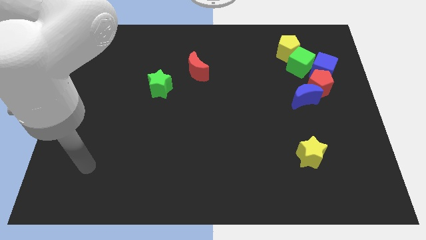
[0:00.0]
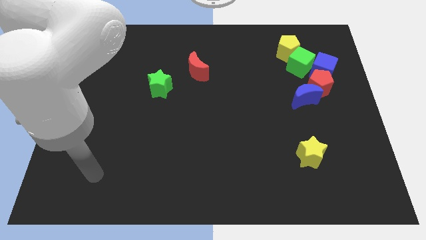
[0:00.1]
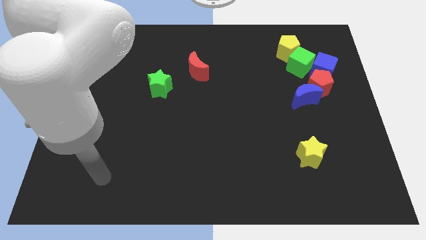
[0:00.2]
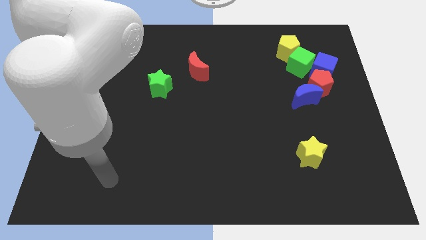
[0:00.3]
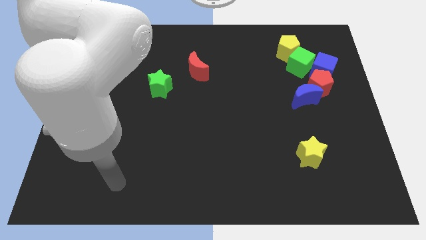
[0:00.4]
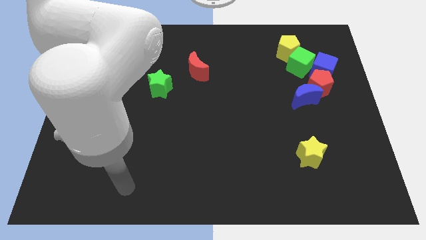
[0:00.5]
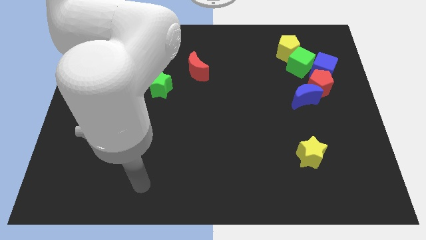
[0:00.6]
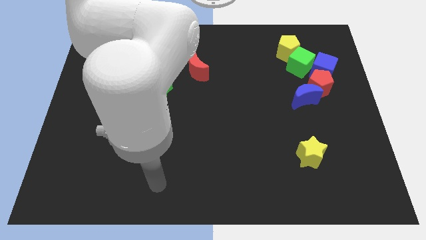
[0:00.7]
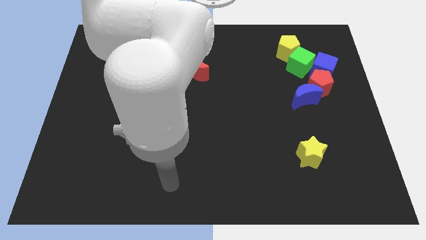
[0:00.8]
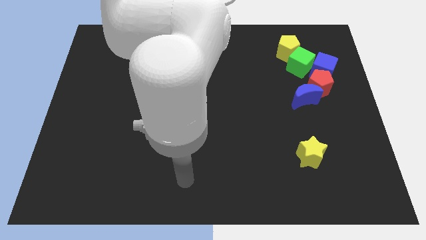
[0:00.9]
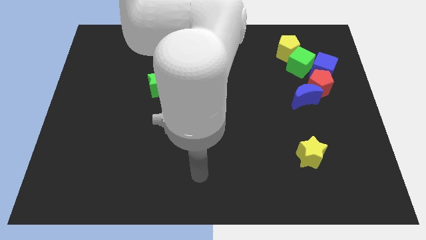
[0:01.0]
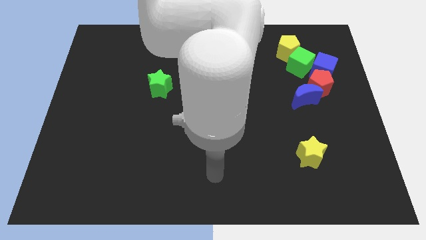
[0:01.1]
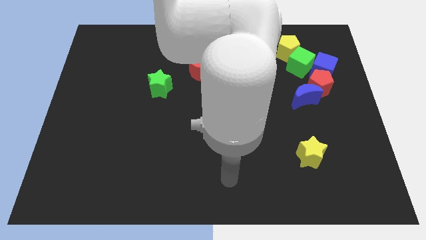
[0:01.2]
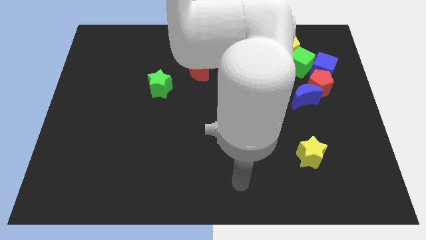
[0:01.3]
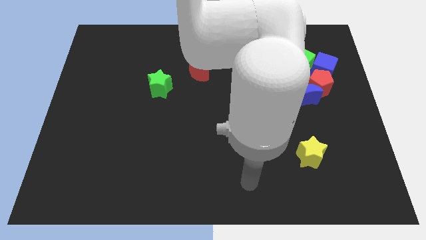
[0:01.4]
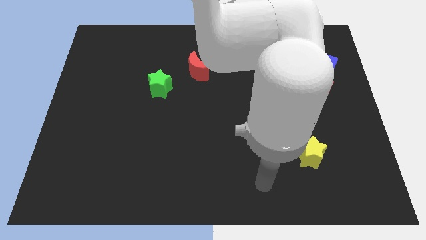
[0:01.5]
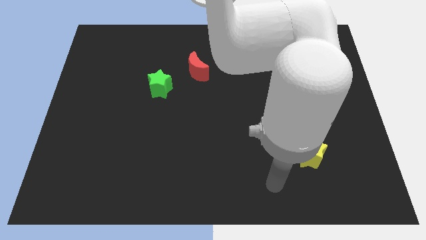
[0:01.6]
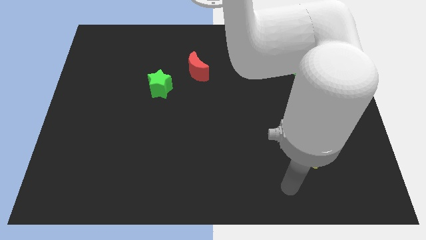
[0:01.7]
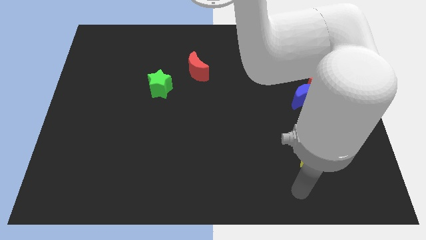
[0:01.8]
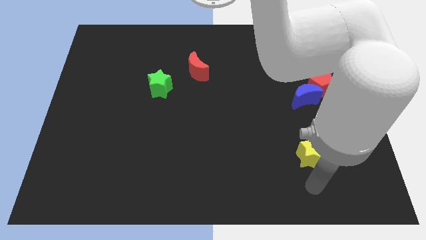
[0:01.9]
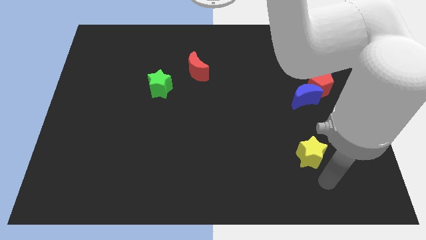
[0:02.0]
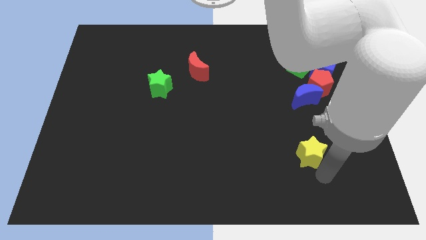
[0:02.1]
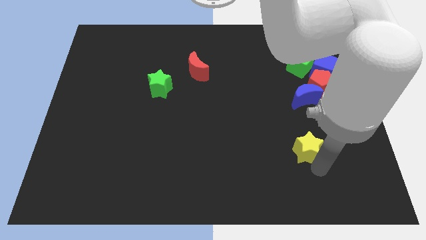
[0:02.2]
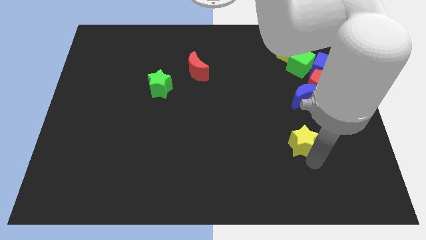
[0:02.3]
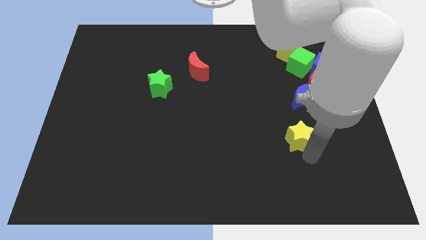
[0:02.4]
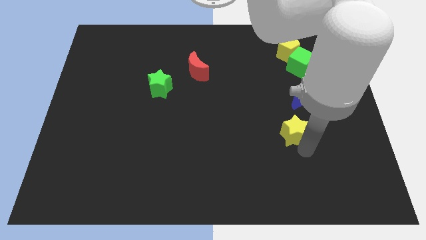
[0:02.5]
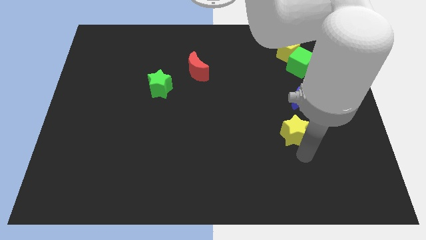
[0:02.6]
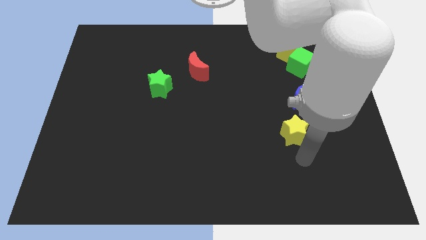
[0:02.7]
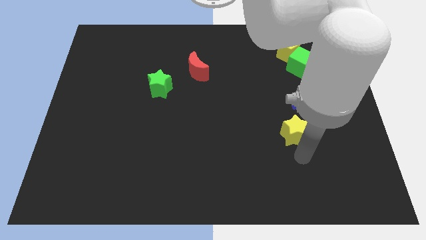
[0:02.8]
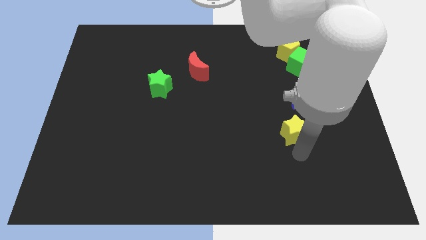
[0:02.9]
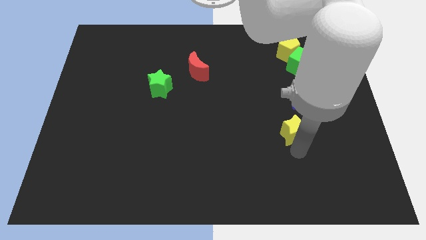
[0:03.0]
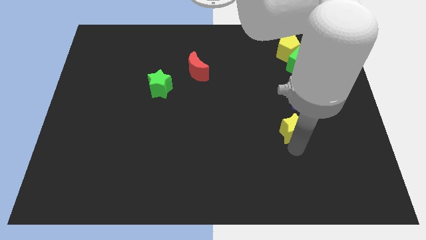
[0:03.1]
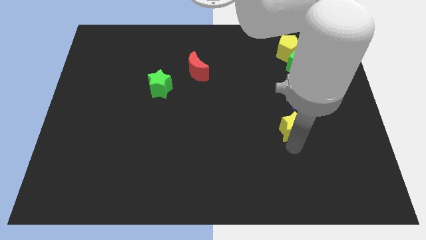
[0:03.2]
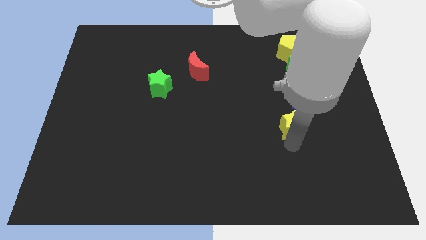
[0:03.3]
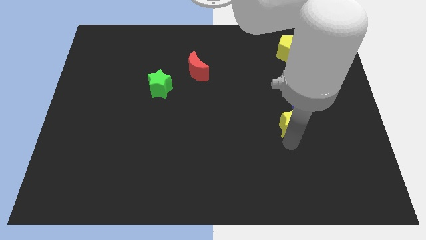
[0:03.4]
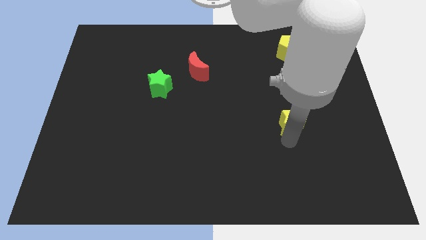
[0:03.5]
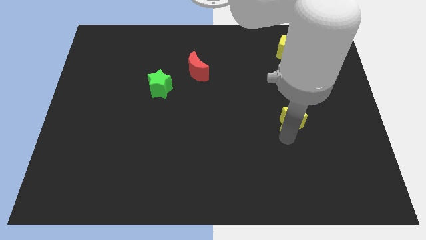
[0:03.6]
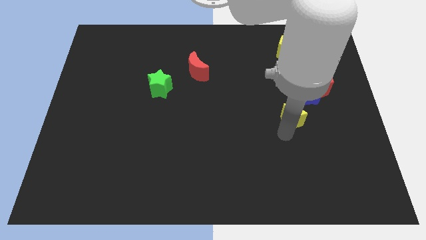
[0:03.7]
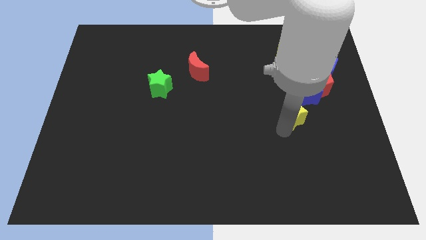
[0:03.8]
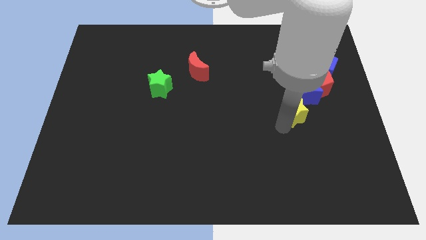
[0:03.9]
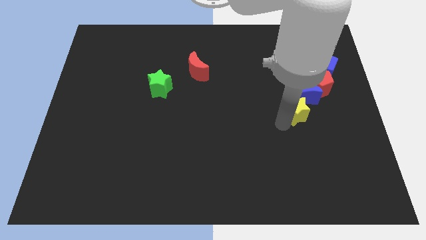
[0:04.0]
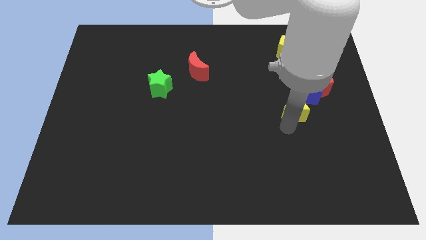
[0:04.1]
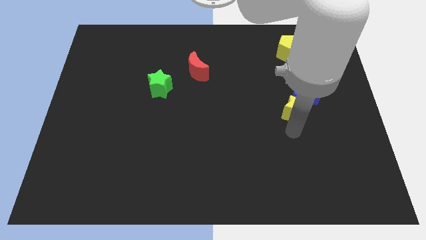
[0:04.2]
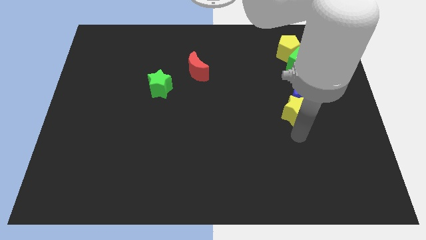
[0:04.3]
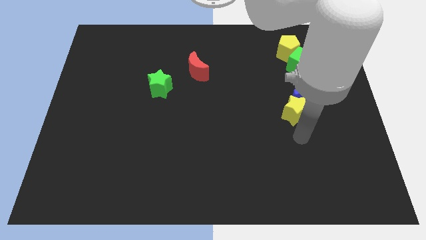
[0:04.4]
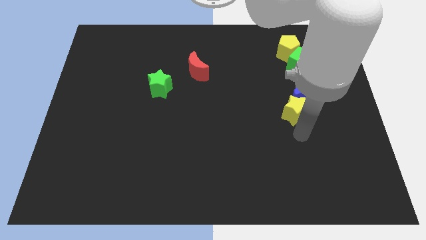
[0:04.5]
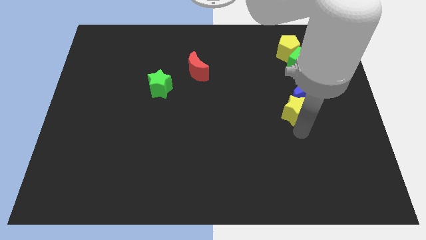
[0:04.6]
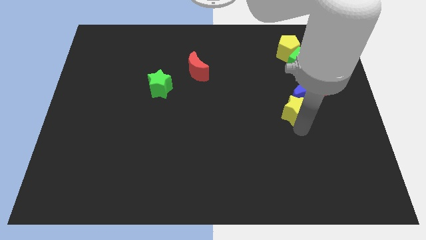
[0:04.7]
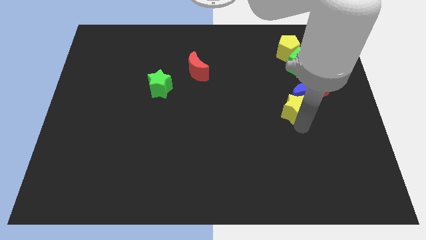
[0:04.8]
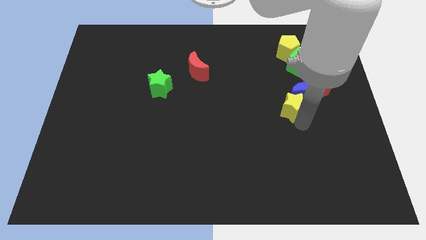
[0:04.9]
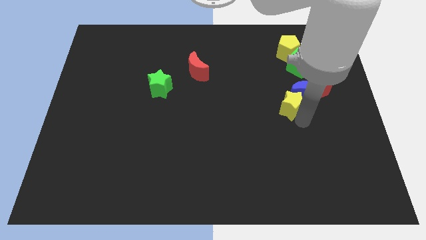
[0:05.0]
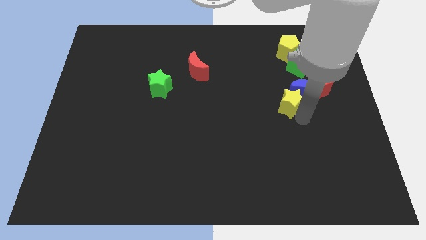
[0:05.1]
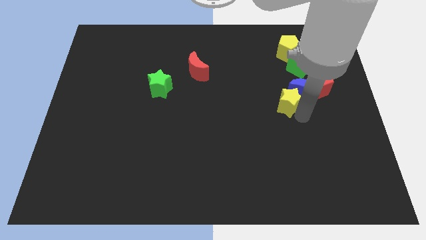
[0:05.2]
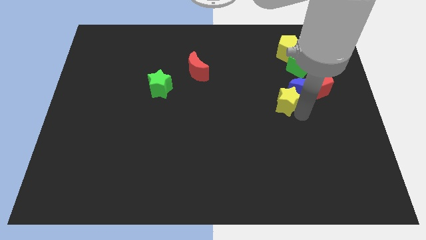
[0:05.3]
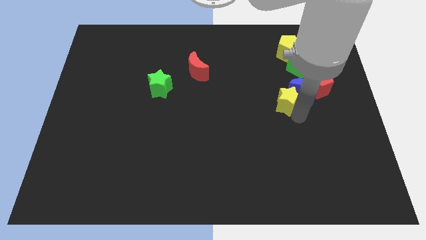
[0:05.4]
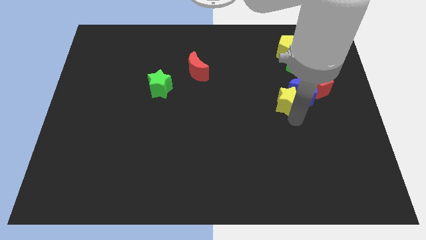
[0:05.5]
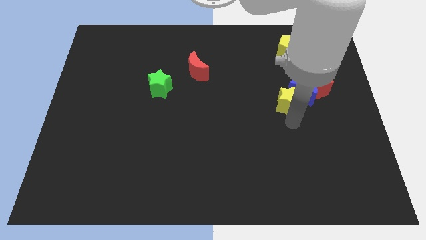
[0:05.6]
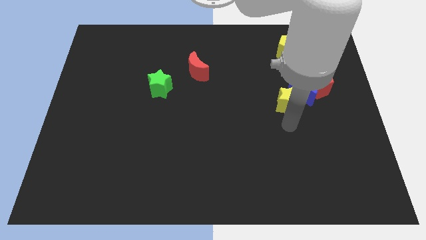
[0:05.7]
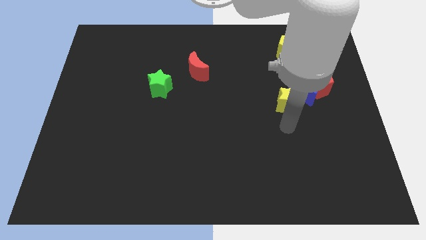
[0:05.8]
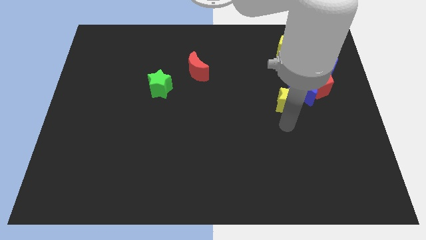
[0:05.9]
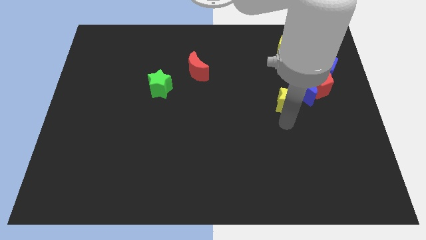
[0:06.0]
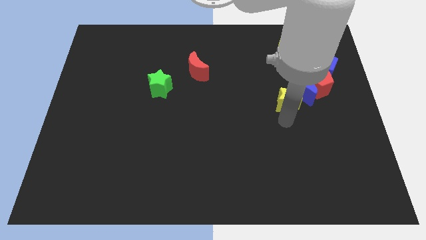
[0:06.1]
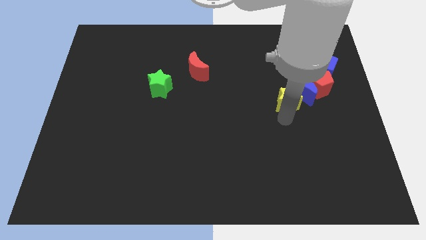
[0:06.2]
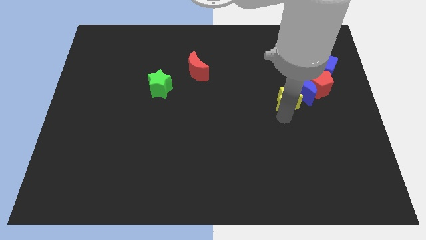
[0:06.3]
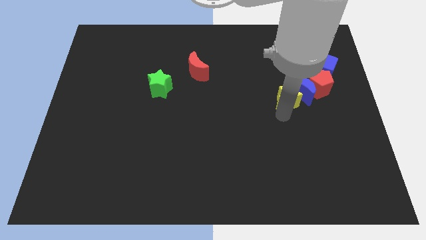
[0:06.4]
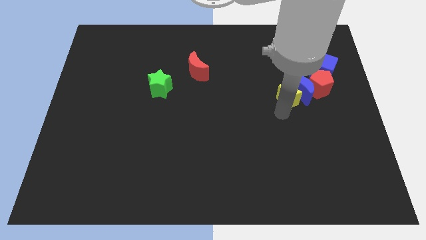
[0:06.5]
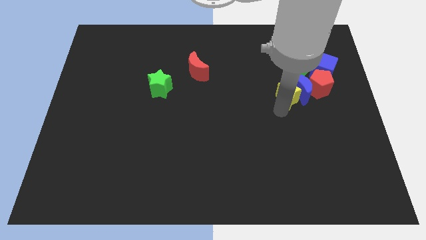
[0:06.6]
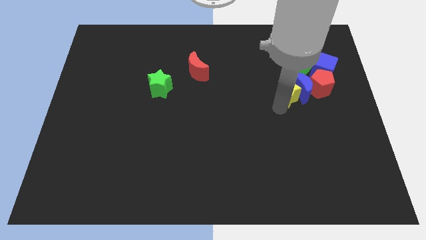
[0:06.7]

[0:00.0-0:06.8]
push the yellow star below the yellow pentagon

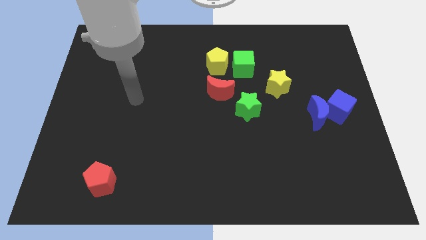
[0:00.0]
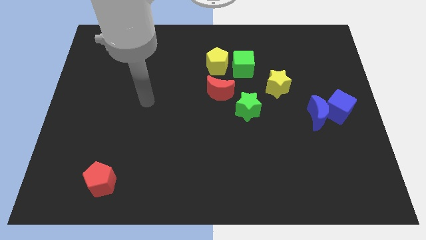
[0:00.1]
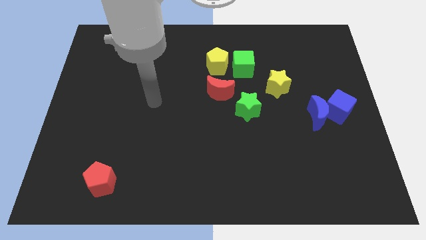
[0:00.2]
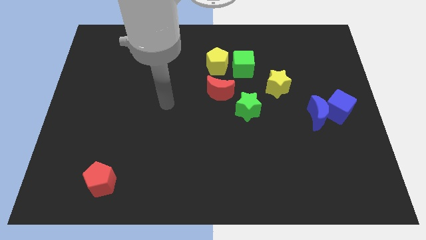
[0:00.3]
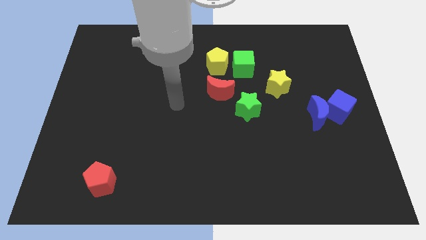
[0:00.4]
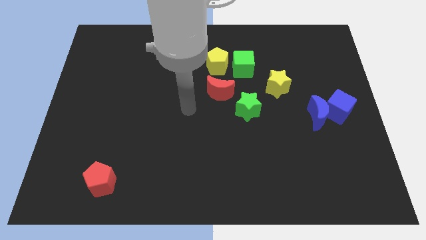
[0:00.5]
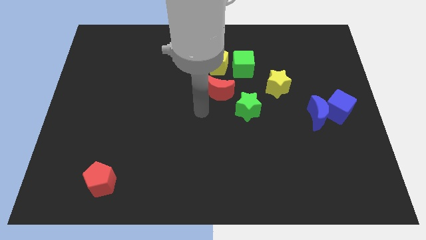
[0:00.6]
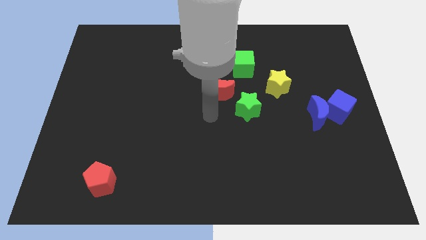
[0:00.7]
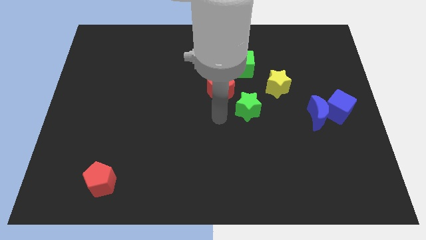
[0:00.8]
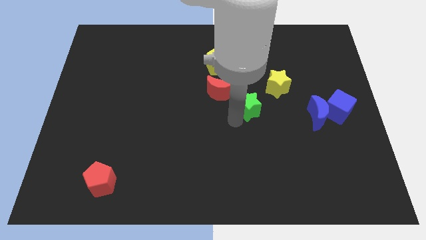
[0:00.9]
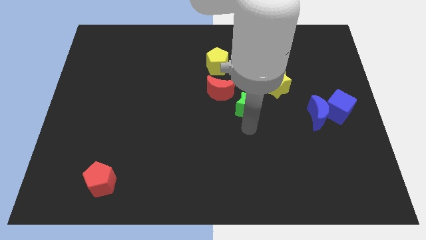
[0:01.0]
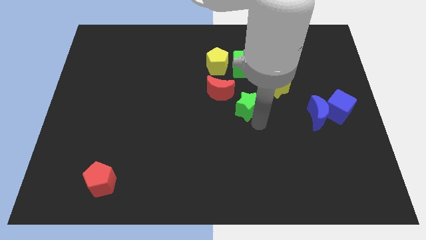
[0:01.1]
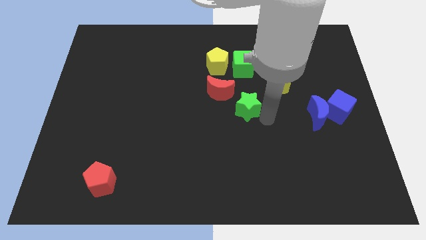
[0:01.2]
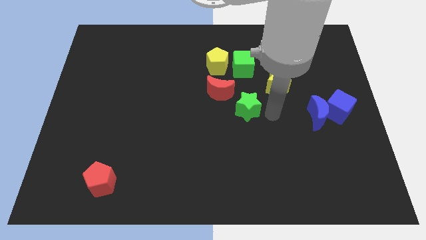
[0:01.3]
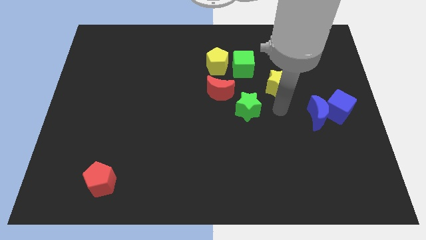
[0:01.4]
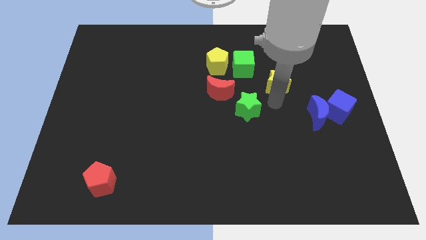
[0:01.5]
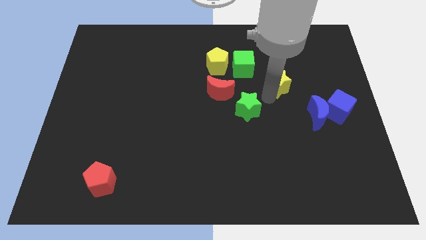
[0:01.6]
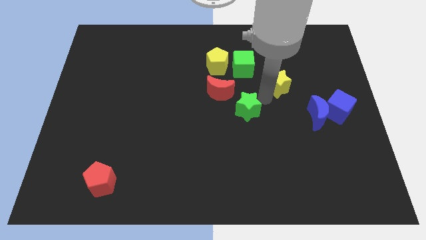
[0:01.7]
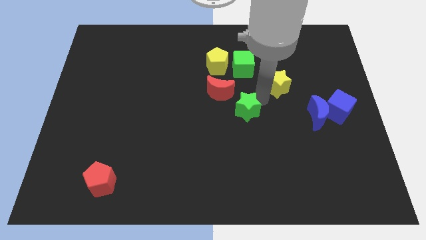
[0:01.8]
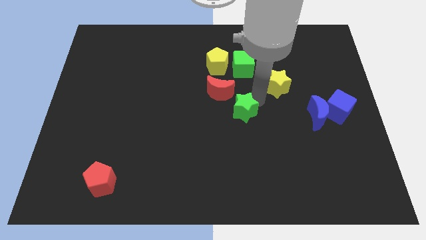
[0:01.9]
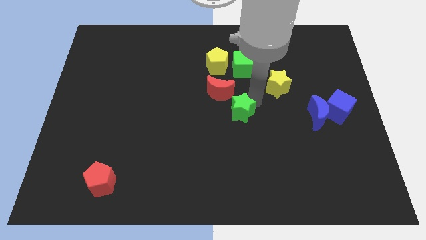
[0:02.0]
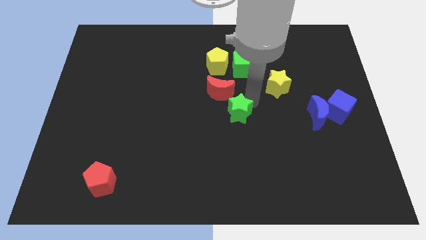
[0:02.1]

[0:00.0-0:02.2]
push the green star to the bottom side of the red moon
